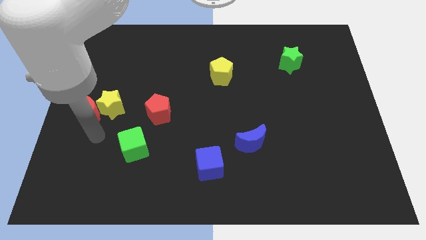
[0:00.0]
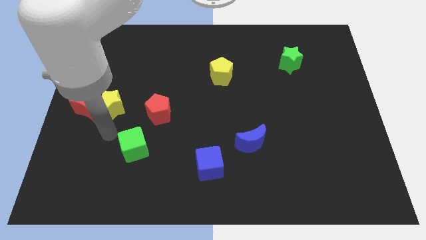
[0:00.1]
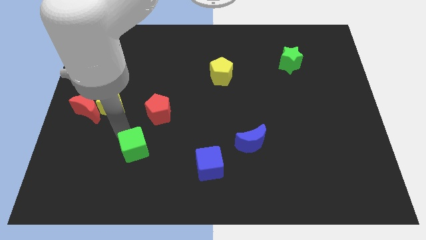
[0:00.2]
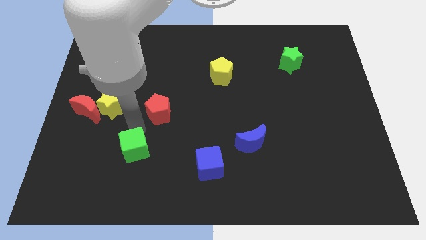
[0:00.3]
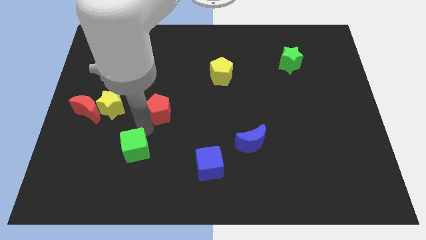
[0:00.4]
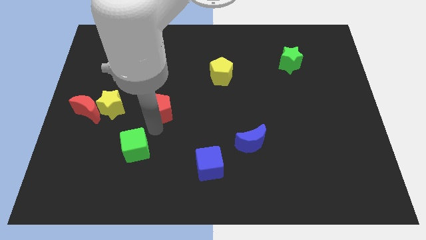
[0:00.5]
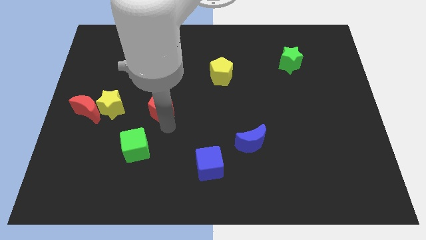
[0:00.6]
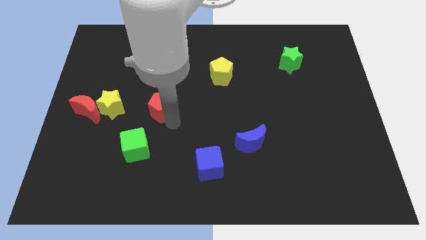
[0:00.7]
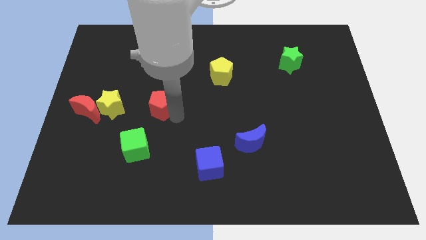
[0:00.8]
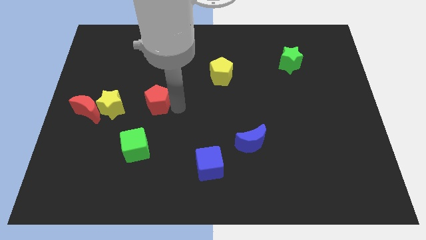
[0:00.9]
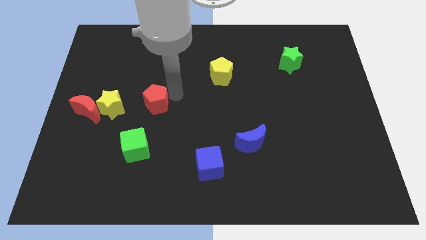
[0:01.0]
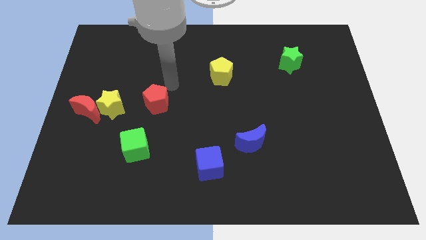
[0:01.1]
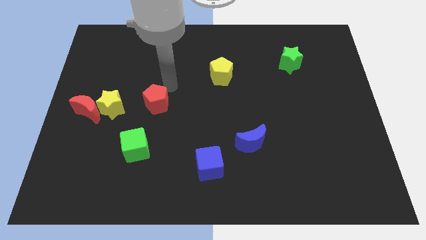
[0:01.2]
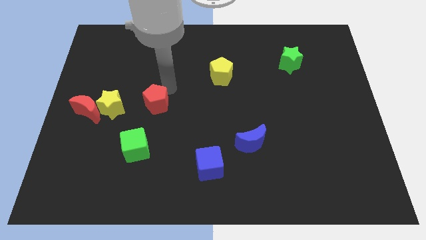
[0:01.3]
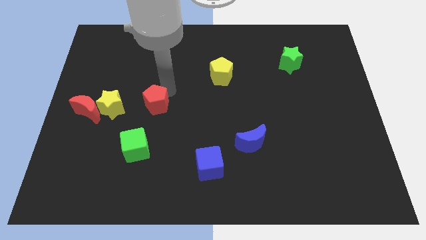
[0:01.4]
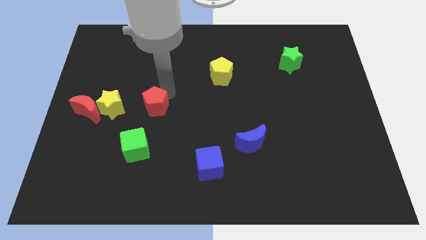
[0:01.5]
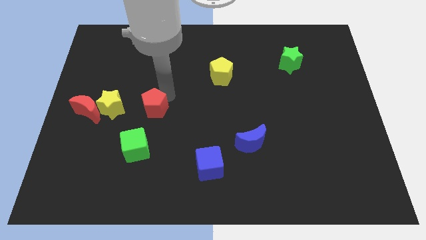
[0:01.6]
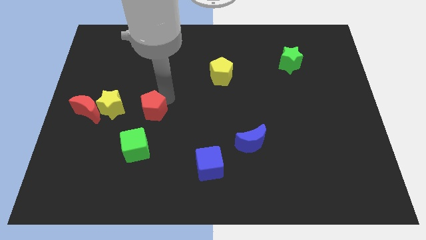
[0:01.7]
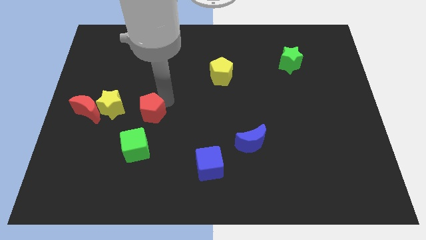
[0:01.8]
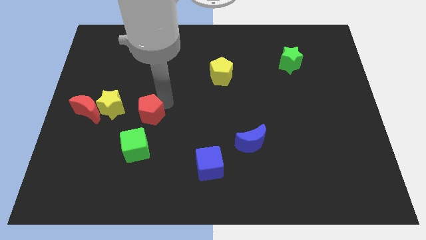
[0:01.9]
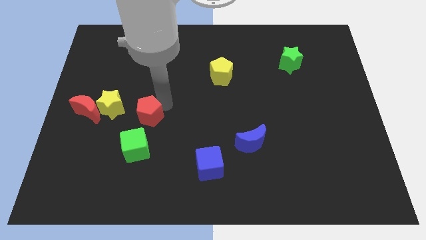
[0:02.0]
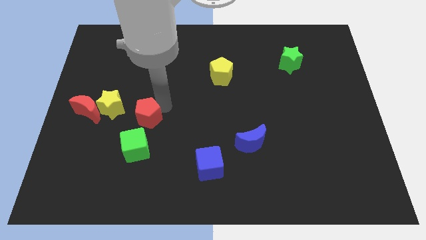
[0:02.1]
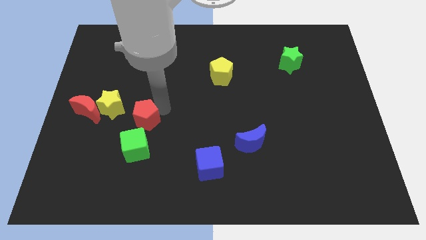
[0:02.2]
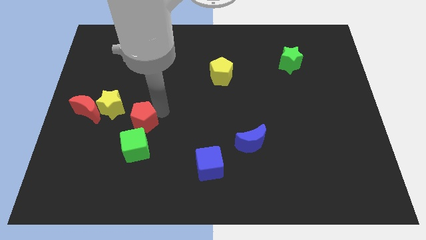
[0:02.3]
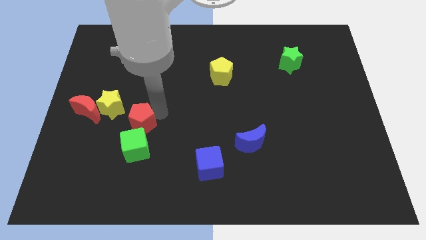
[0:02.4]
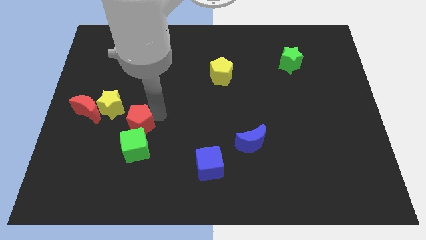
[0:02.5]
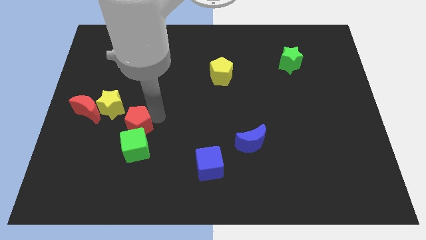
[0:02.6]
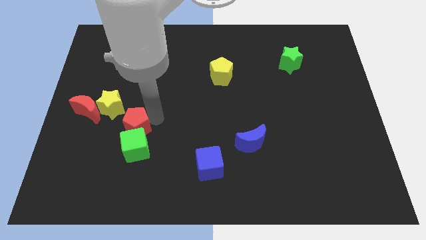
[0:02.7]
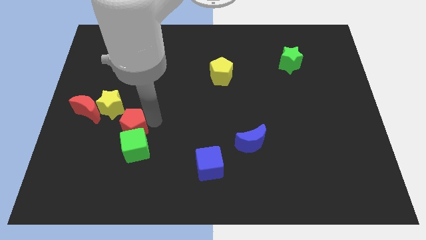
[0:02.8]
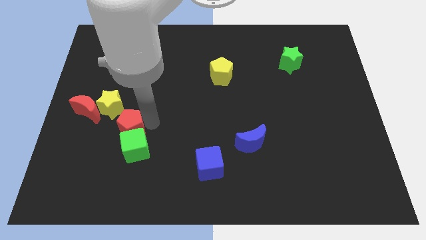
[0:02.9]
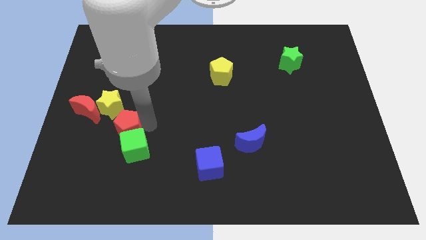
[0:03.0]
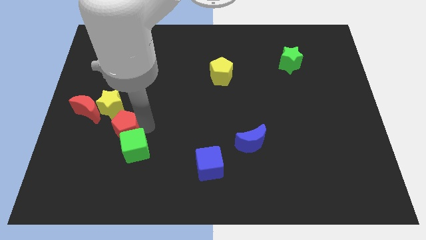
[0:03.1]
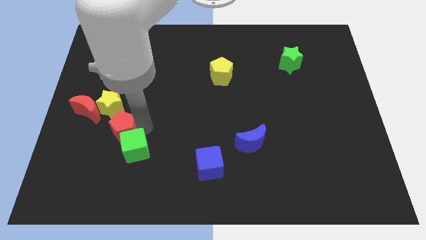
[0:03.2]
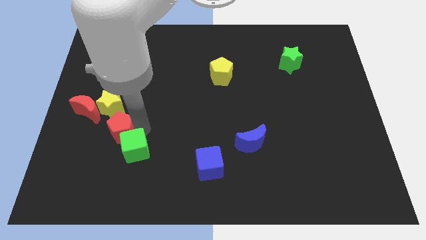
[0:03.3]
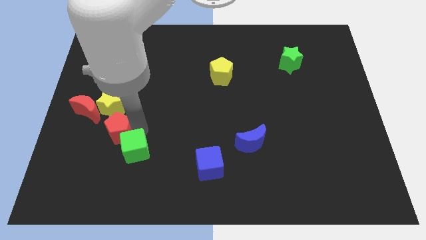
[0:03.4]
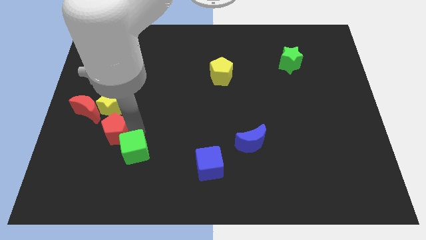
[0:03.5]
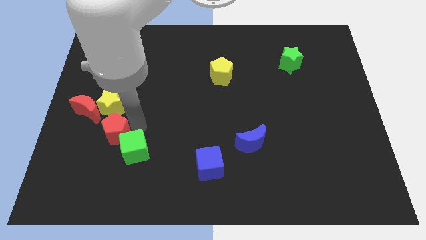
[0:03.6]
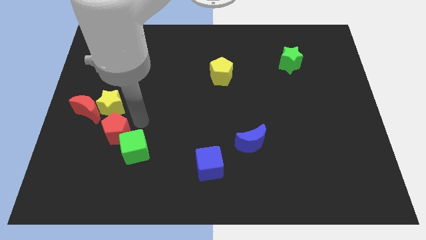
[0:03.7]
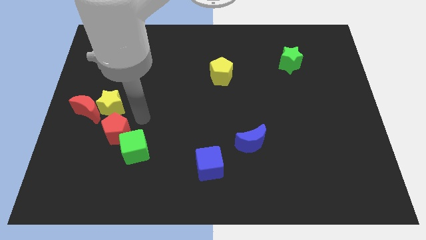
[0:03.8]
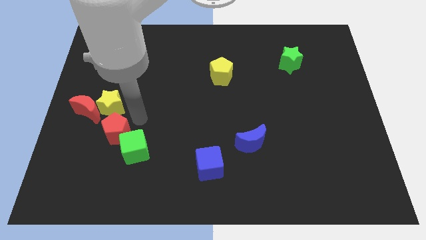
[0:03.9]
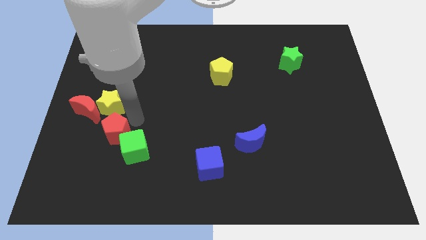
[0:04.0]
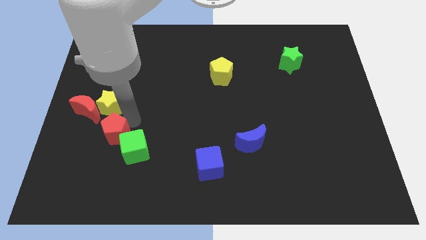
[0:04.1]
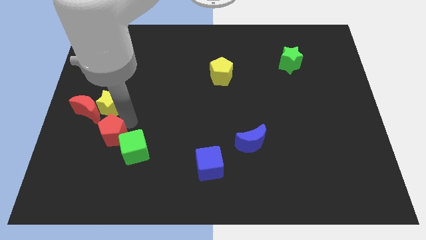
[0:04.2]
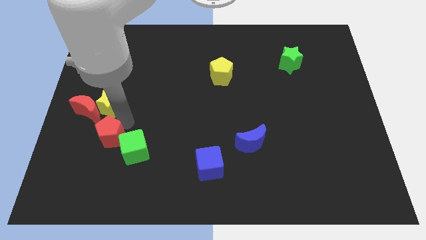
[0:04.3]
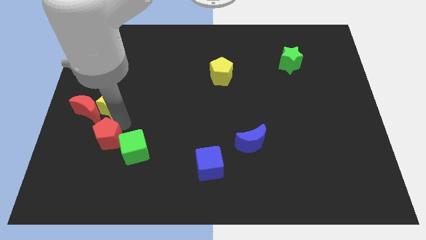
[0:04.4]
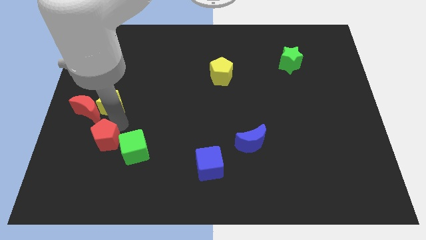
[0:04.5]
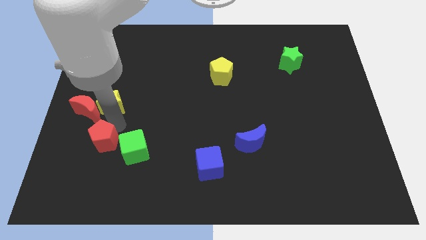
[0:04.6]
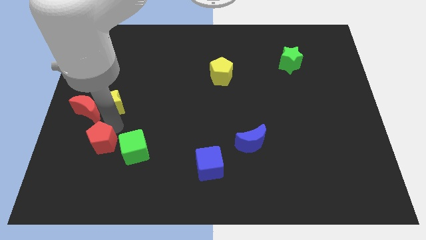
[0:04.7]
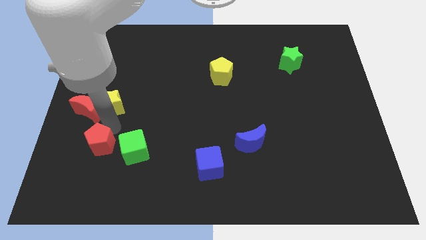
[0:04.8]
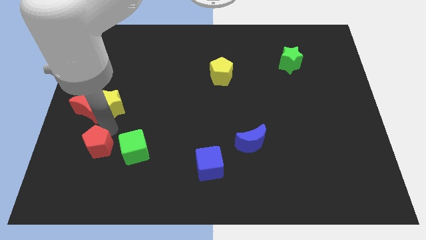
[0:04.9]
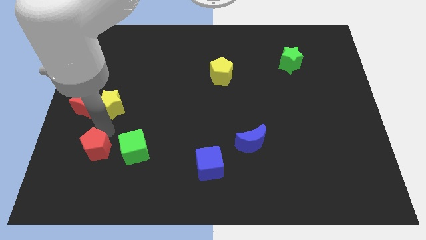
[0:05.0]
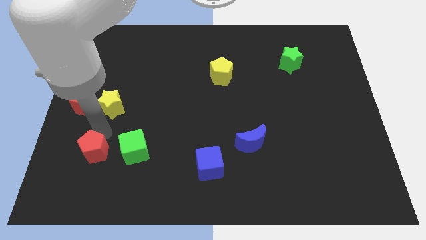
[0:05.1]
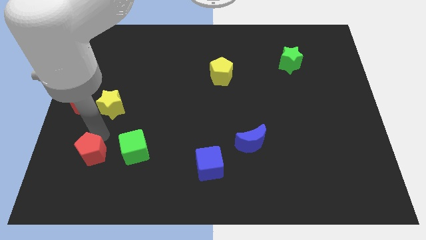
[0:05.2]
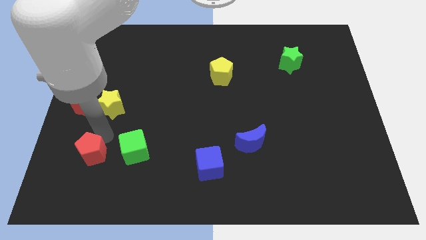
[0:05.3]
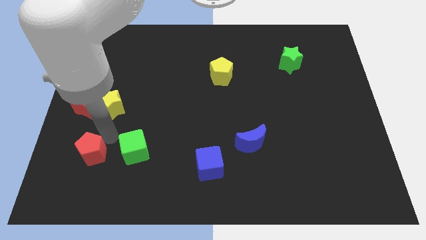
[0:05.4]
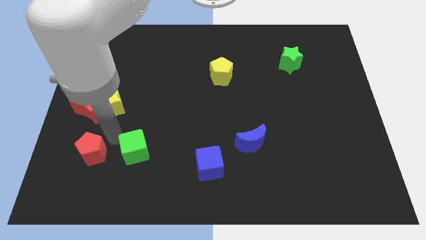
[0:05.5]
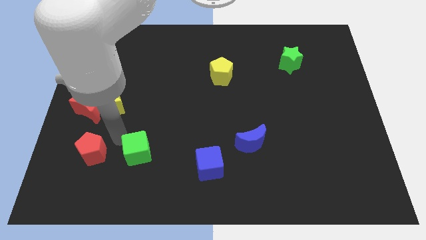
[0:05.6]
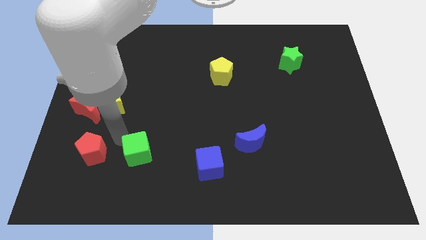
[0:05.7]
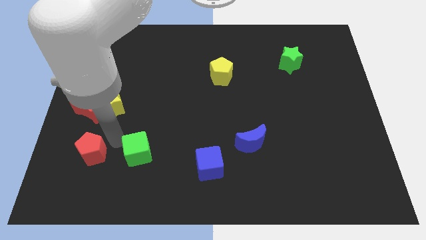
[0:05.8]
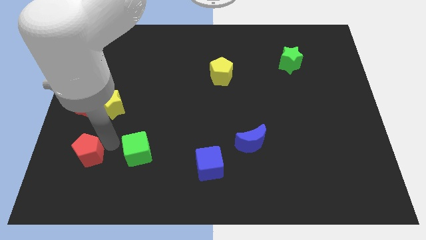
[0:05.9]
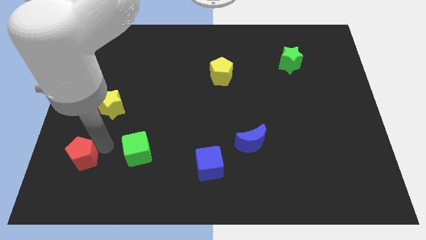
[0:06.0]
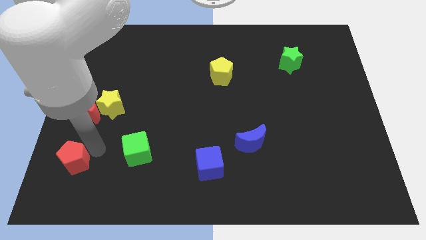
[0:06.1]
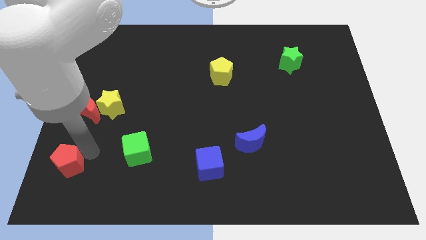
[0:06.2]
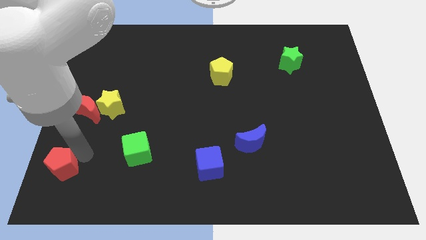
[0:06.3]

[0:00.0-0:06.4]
move the red pentagon to the bottom left corner

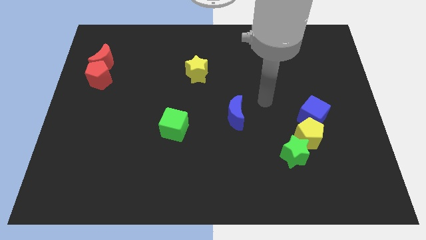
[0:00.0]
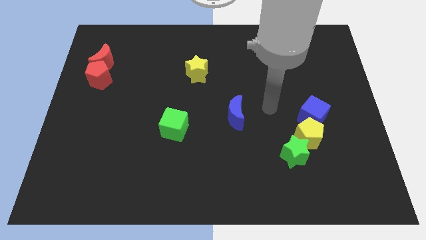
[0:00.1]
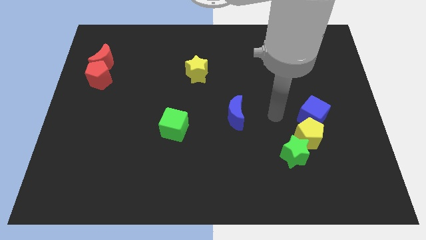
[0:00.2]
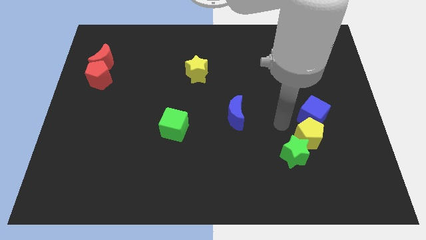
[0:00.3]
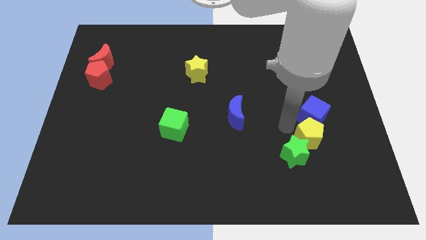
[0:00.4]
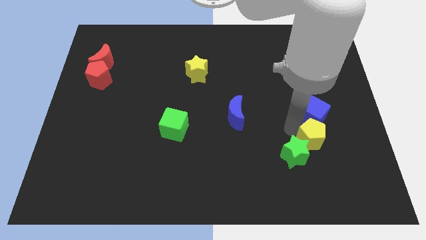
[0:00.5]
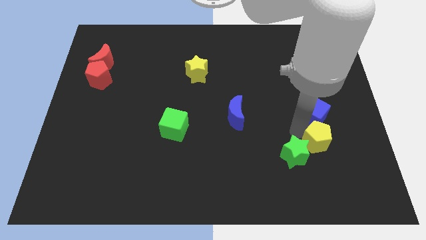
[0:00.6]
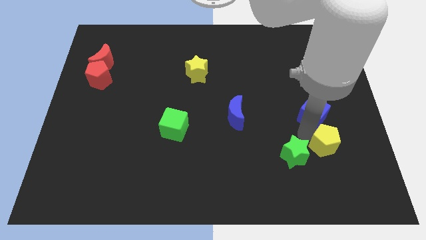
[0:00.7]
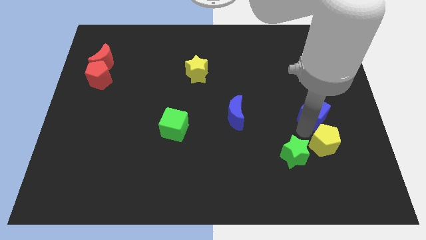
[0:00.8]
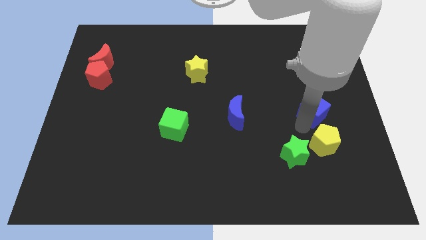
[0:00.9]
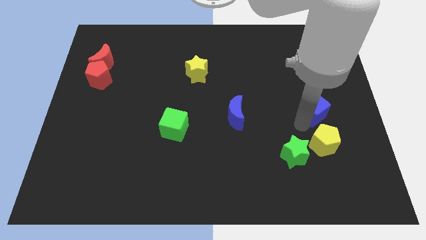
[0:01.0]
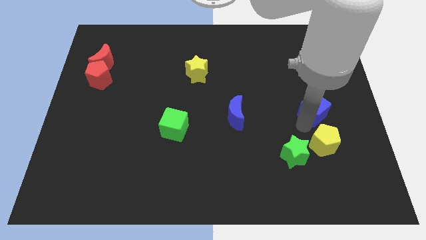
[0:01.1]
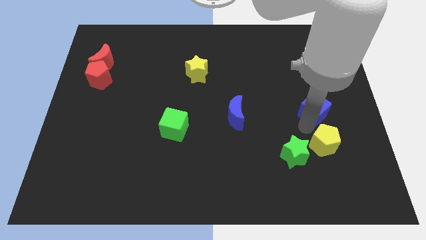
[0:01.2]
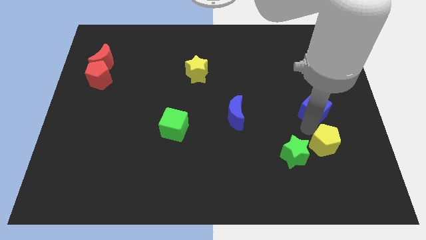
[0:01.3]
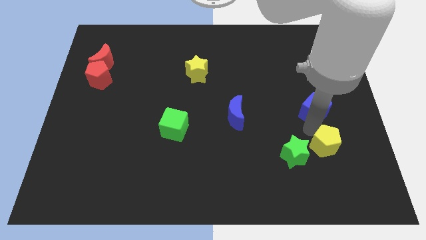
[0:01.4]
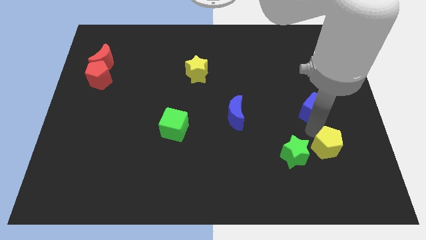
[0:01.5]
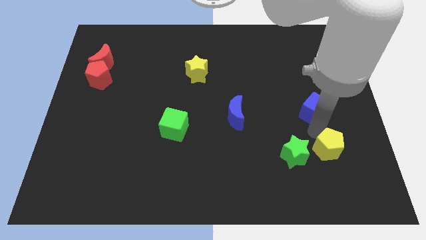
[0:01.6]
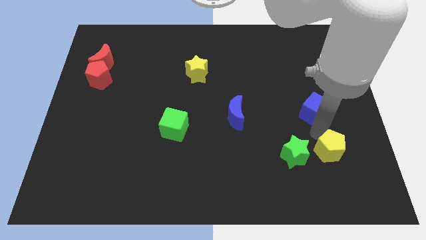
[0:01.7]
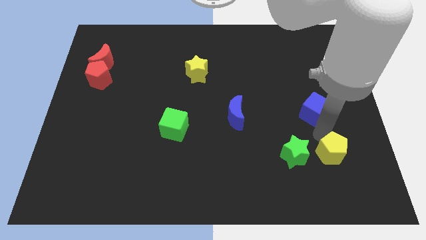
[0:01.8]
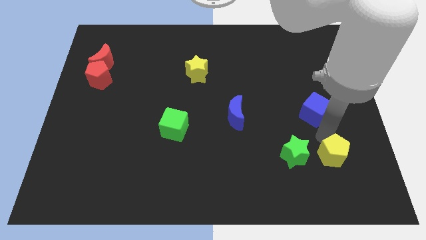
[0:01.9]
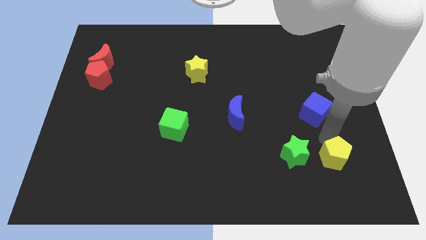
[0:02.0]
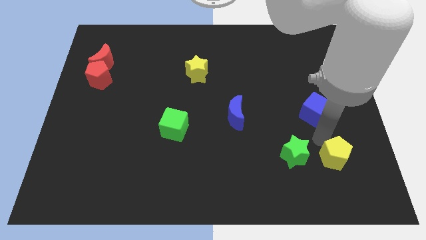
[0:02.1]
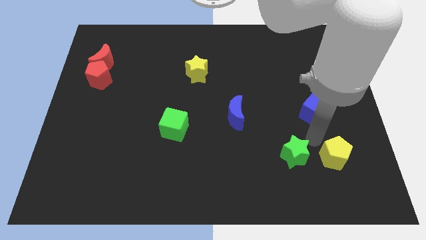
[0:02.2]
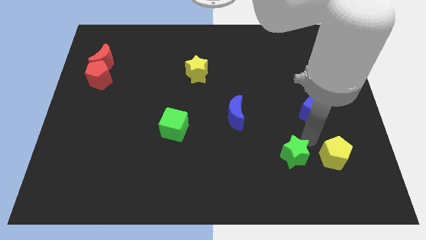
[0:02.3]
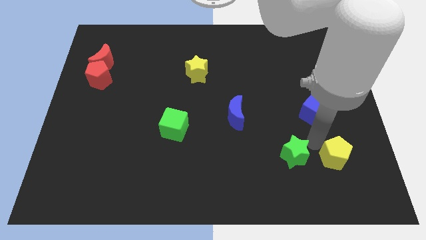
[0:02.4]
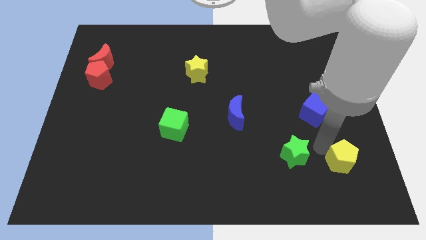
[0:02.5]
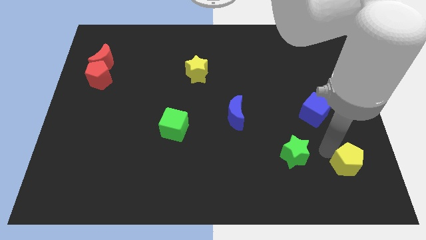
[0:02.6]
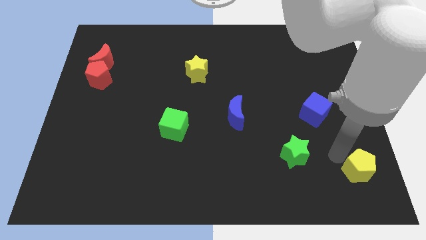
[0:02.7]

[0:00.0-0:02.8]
slide the yellow pentagon to the bottom right corner
